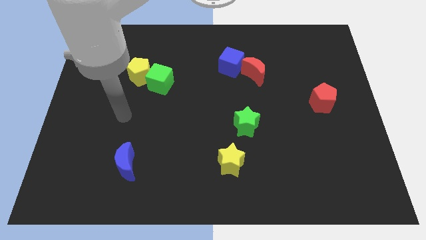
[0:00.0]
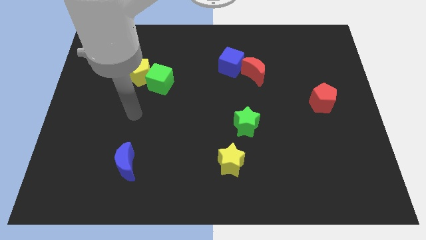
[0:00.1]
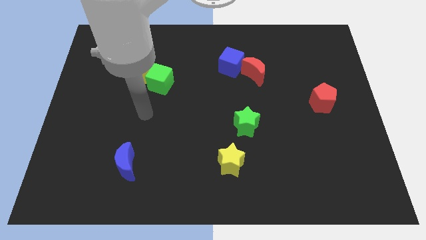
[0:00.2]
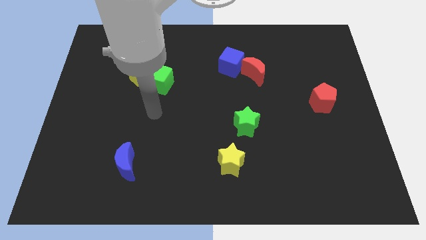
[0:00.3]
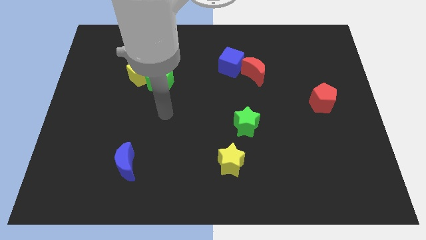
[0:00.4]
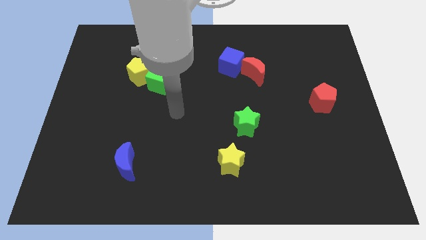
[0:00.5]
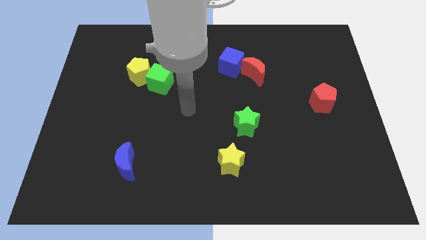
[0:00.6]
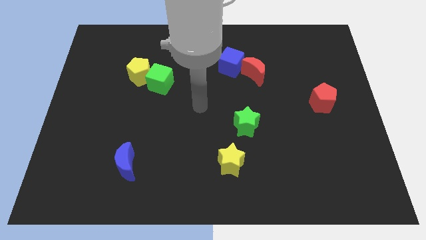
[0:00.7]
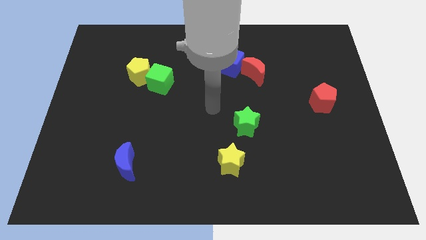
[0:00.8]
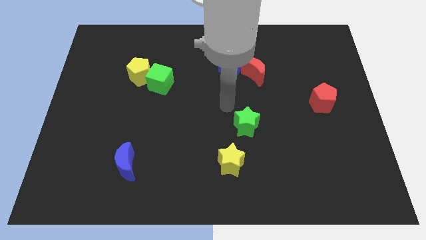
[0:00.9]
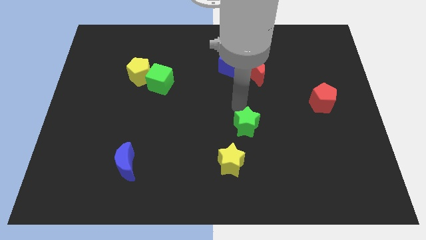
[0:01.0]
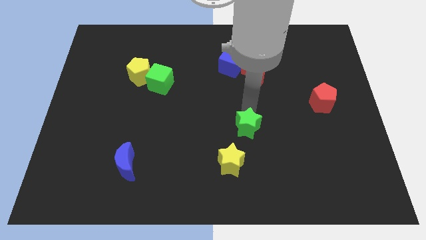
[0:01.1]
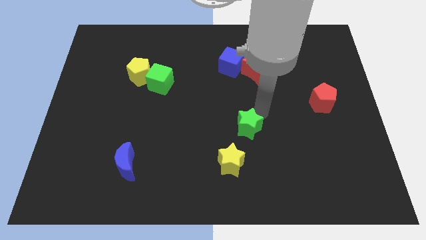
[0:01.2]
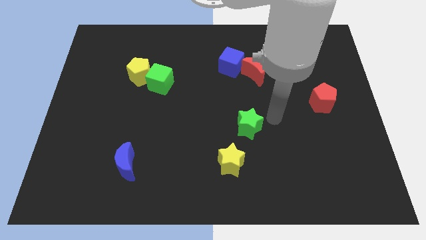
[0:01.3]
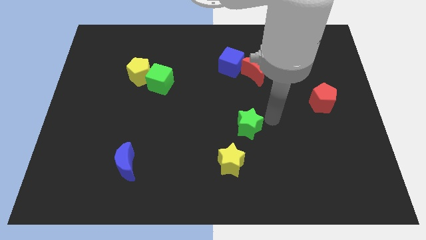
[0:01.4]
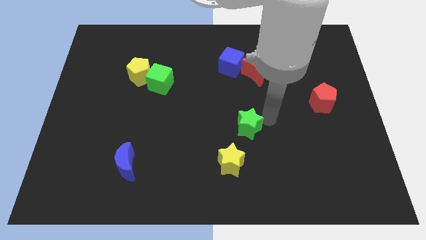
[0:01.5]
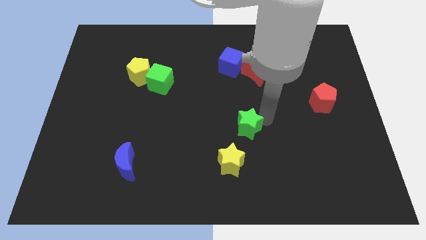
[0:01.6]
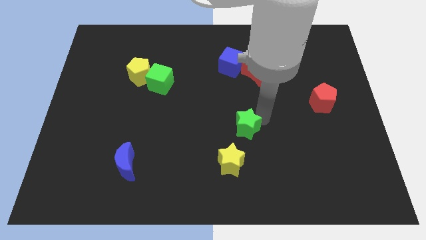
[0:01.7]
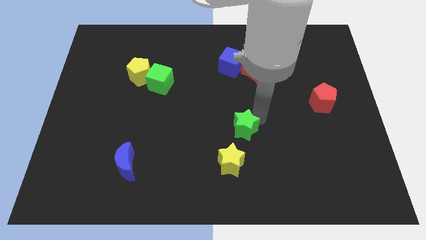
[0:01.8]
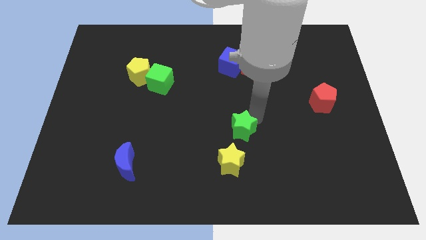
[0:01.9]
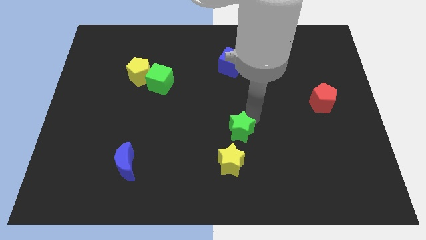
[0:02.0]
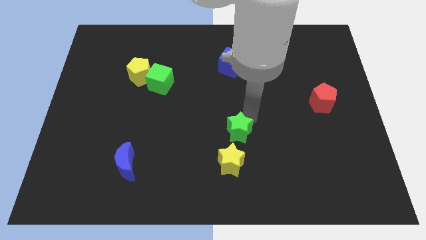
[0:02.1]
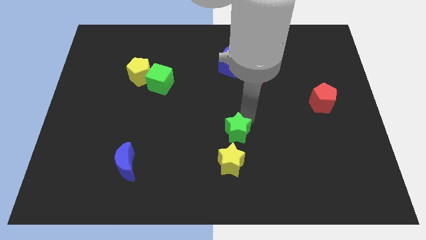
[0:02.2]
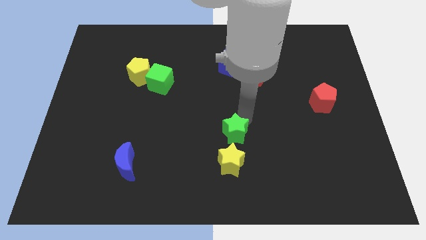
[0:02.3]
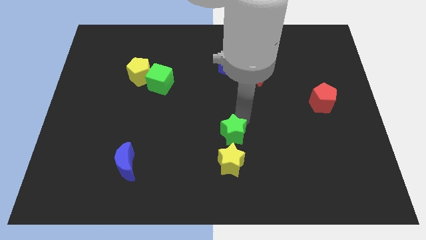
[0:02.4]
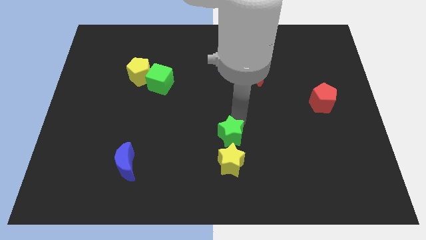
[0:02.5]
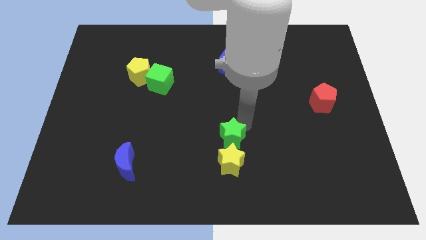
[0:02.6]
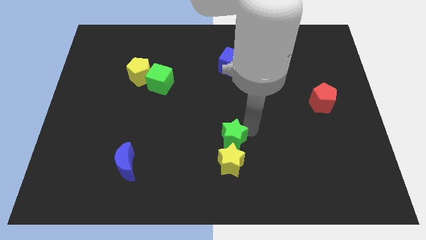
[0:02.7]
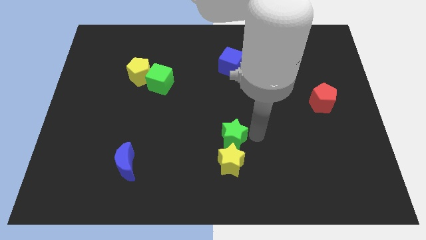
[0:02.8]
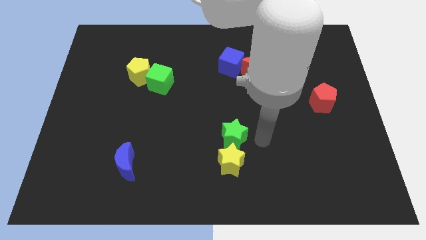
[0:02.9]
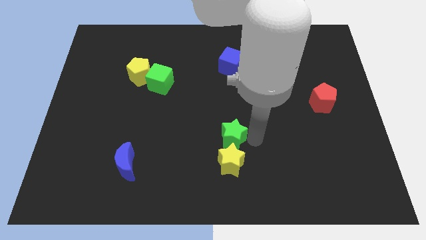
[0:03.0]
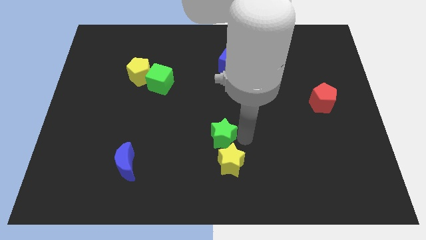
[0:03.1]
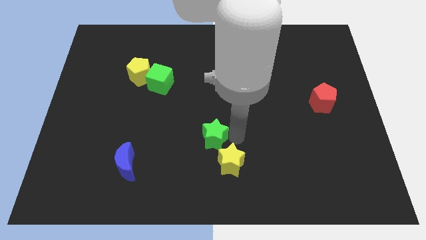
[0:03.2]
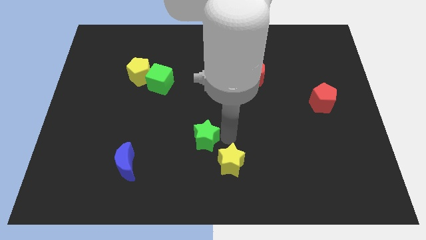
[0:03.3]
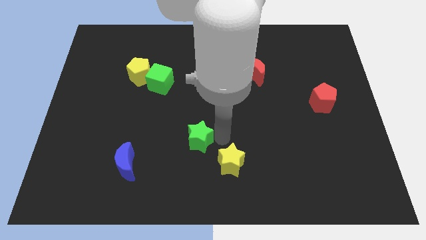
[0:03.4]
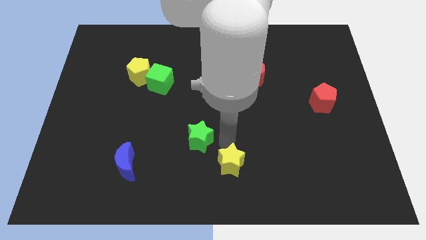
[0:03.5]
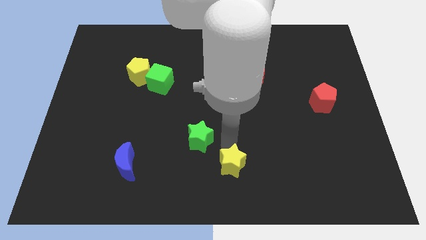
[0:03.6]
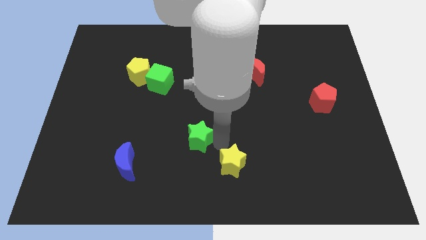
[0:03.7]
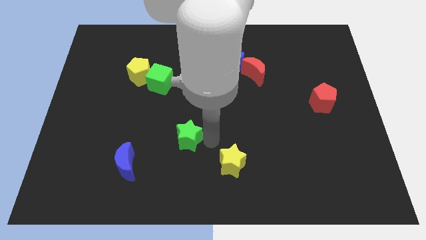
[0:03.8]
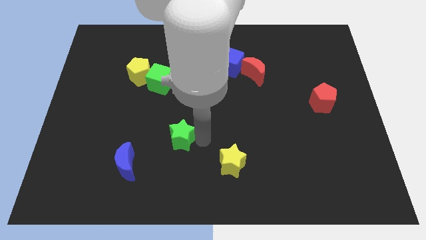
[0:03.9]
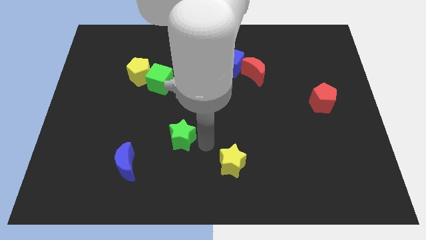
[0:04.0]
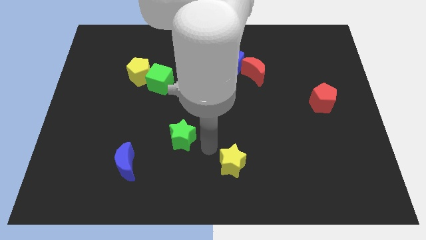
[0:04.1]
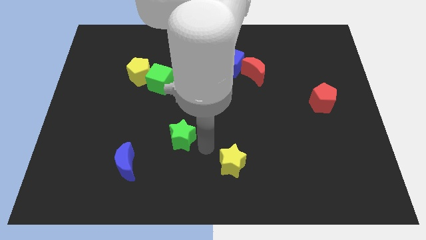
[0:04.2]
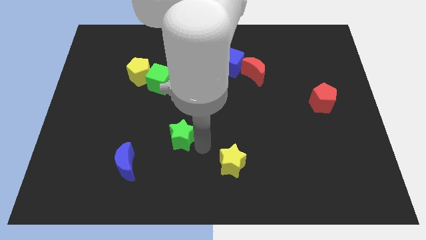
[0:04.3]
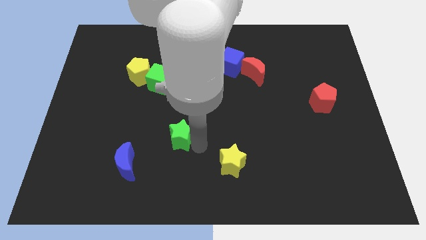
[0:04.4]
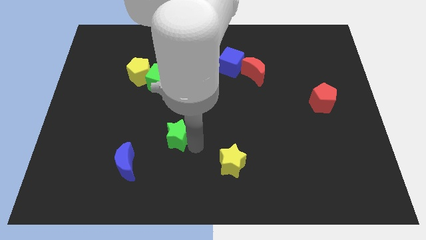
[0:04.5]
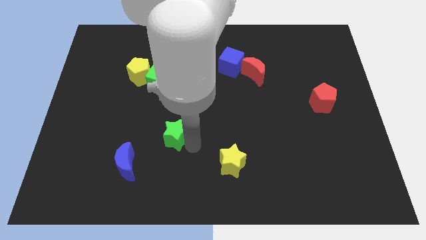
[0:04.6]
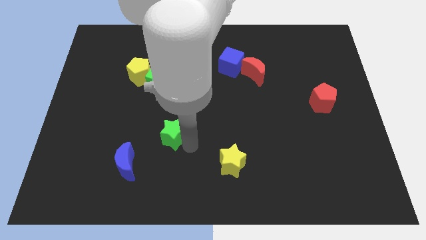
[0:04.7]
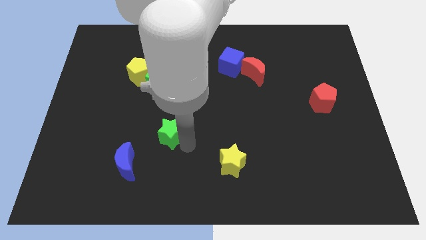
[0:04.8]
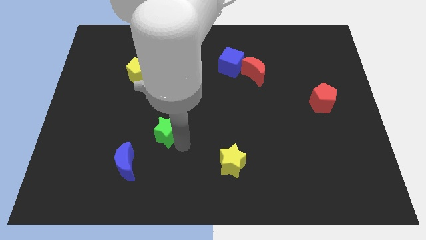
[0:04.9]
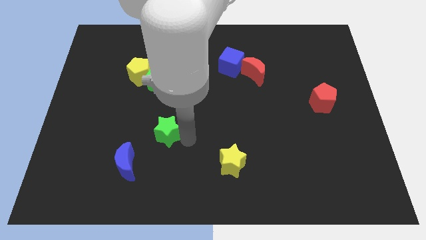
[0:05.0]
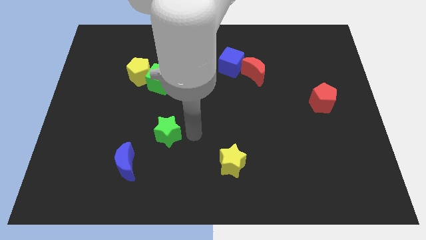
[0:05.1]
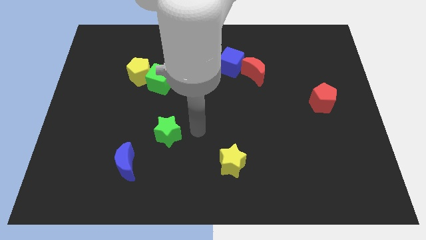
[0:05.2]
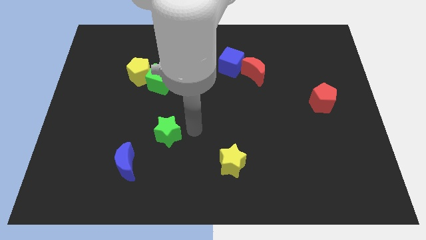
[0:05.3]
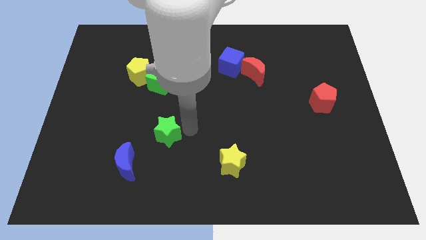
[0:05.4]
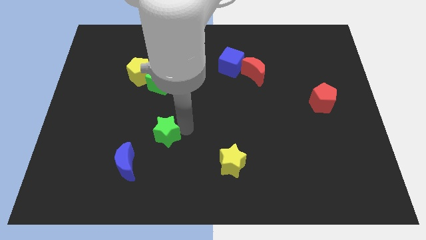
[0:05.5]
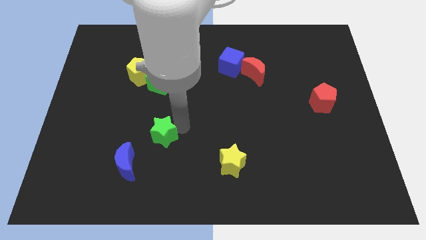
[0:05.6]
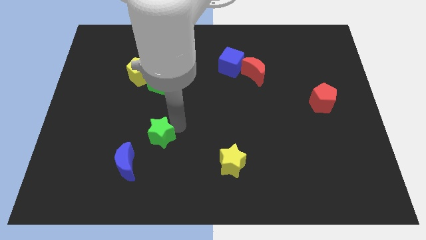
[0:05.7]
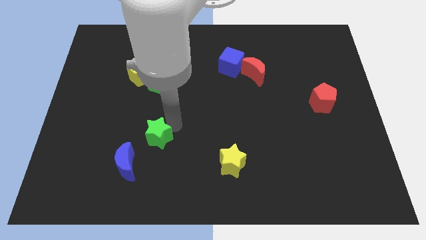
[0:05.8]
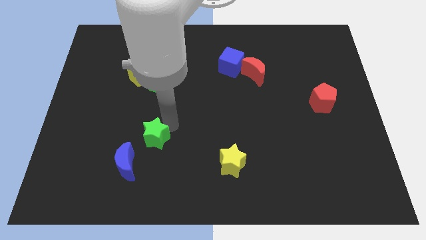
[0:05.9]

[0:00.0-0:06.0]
slide the green star to the left

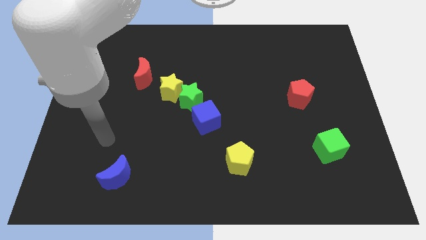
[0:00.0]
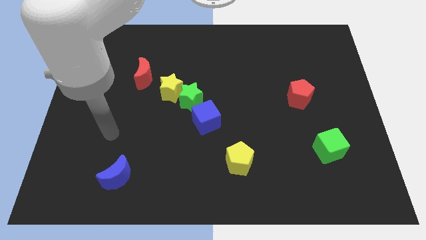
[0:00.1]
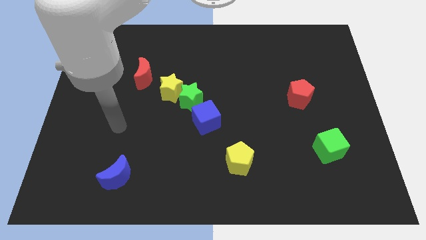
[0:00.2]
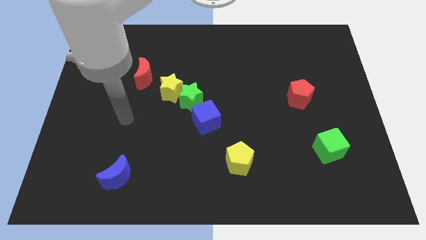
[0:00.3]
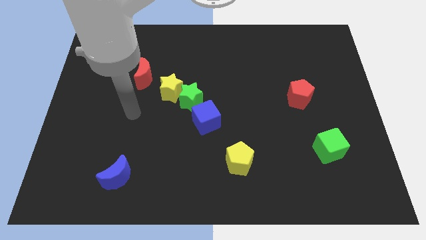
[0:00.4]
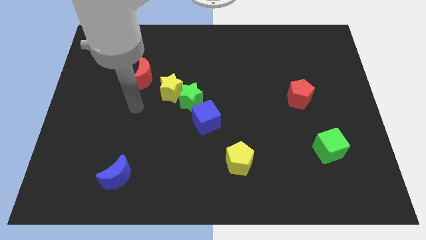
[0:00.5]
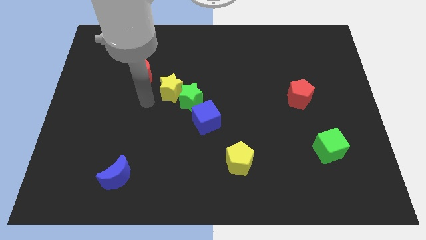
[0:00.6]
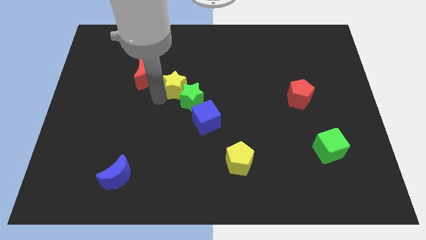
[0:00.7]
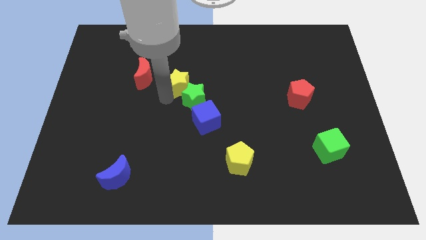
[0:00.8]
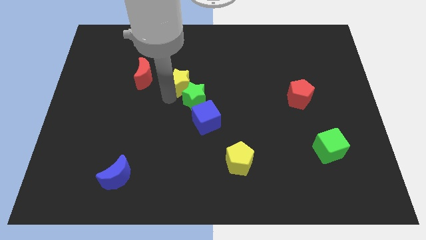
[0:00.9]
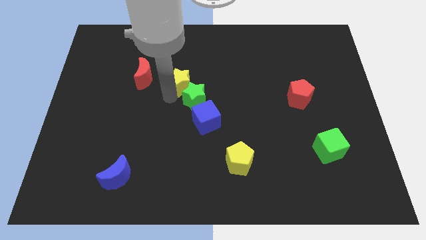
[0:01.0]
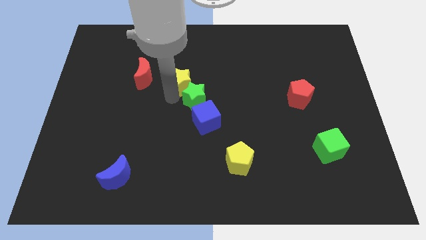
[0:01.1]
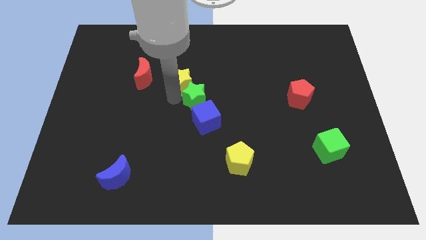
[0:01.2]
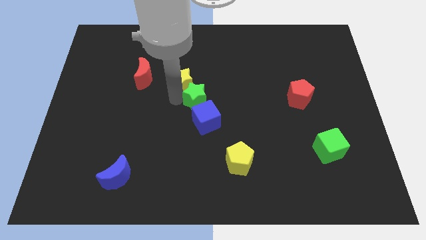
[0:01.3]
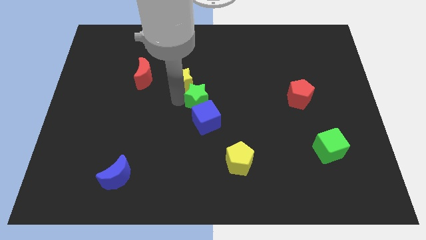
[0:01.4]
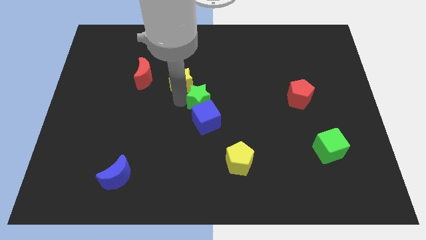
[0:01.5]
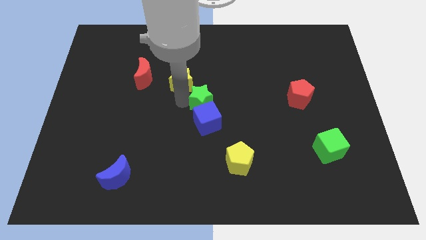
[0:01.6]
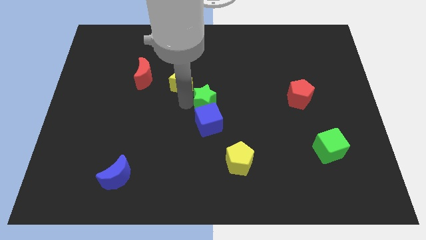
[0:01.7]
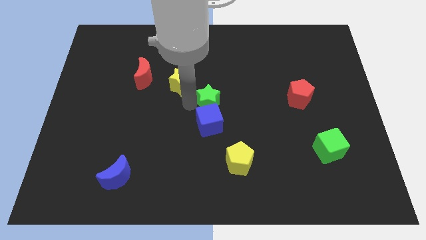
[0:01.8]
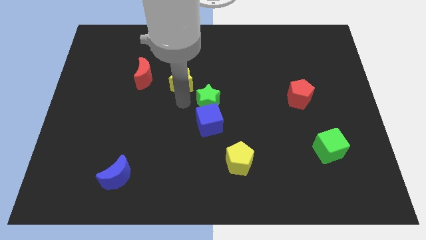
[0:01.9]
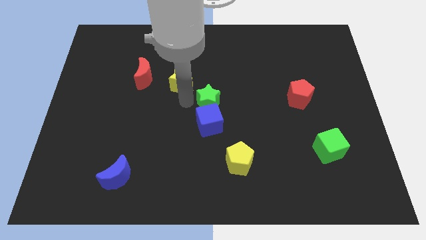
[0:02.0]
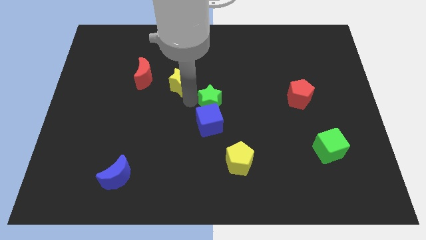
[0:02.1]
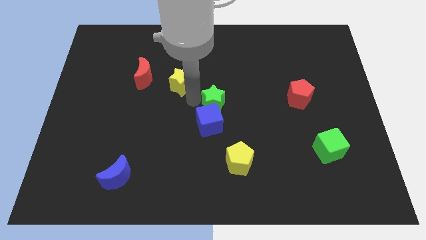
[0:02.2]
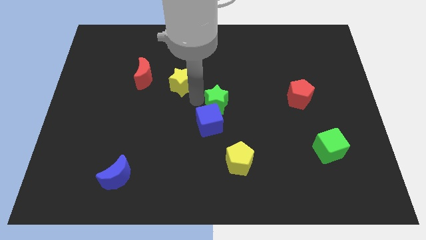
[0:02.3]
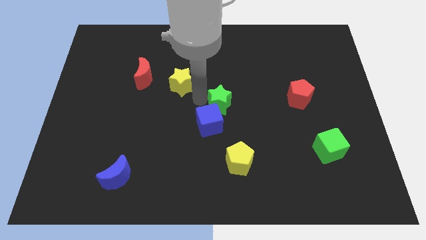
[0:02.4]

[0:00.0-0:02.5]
slide the green star to the right a bit
